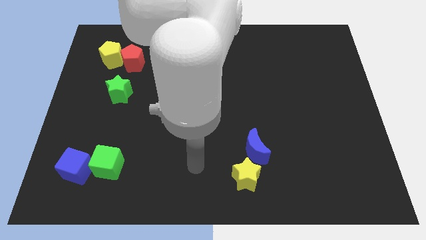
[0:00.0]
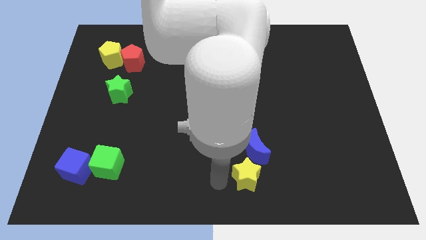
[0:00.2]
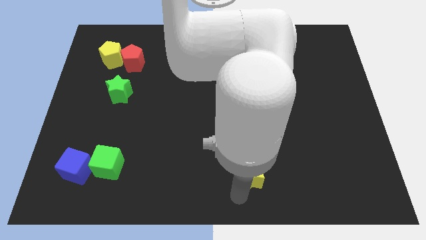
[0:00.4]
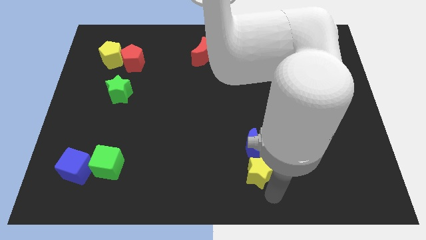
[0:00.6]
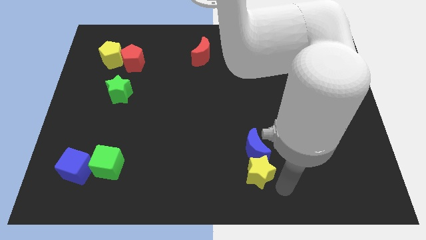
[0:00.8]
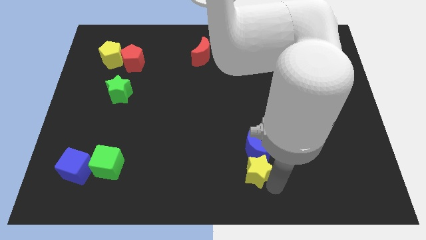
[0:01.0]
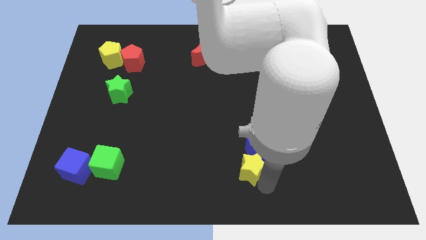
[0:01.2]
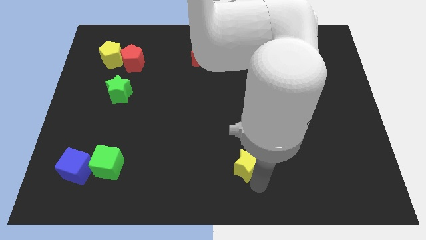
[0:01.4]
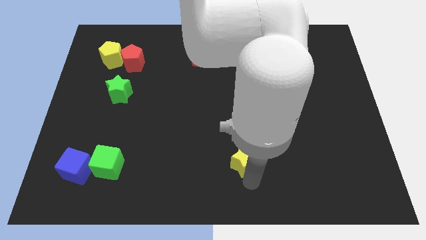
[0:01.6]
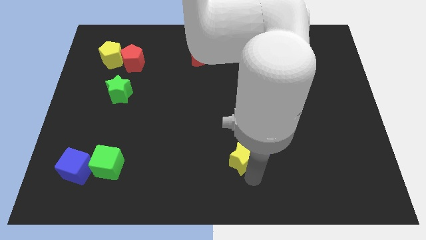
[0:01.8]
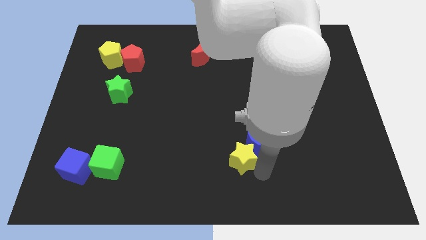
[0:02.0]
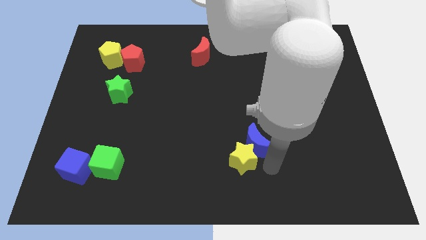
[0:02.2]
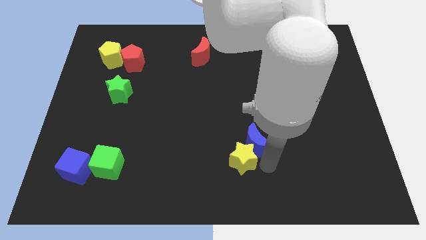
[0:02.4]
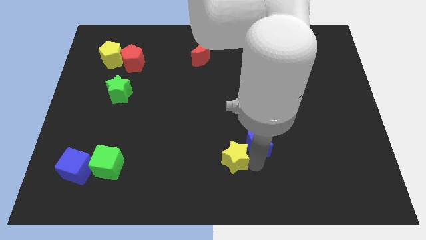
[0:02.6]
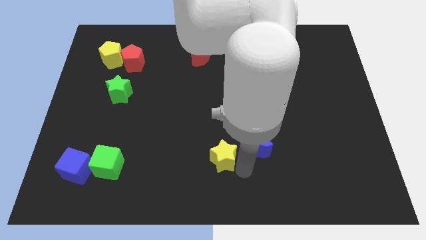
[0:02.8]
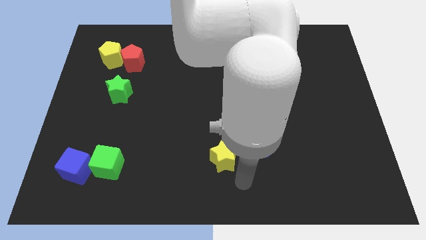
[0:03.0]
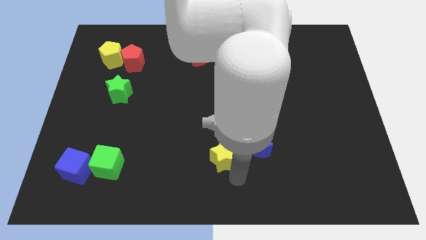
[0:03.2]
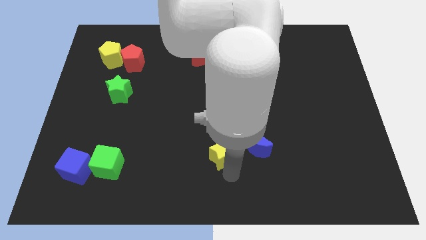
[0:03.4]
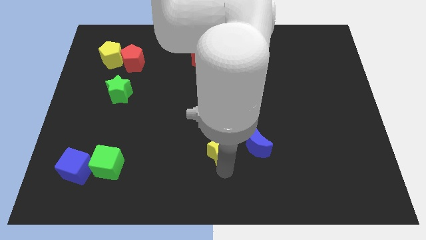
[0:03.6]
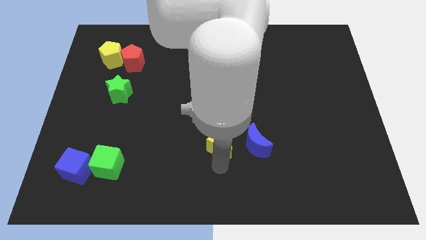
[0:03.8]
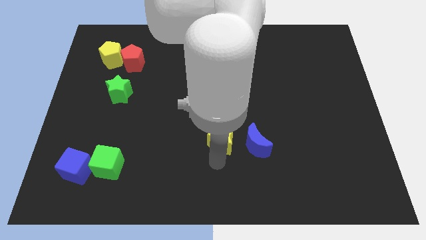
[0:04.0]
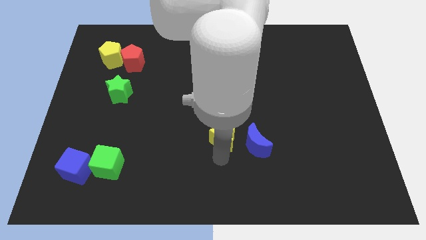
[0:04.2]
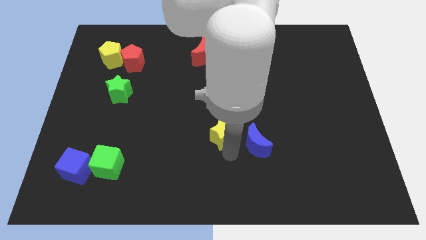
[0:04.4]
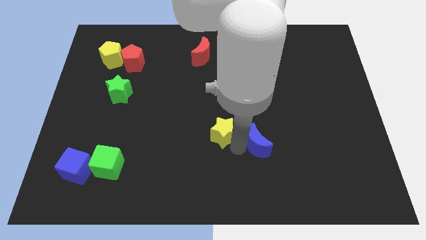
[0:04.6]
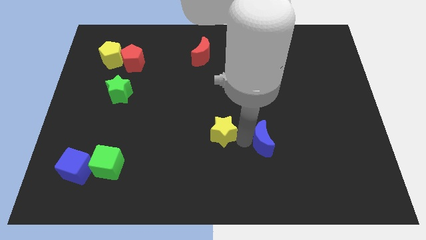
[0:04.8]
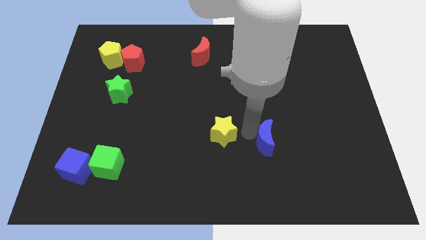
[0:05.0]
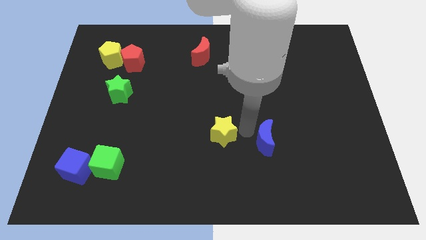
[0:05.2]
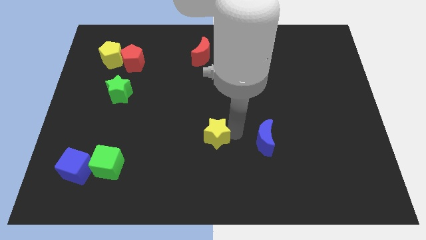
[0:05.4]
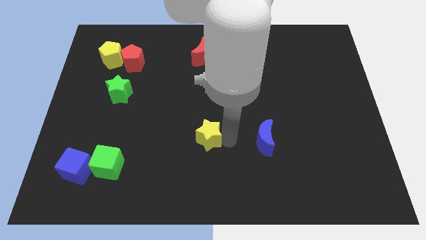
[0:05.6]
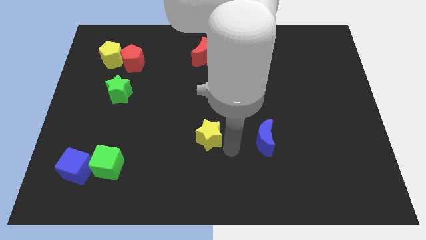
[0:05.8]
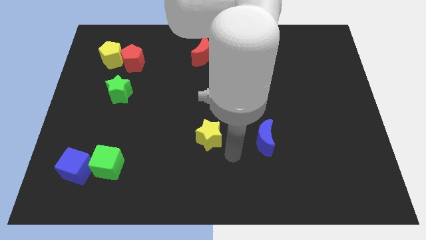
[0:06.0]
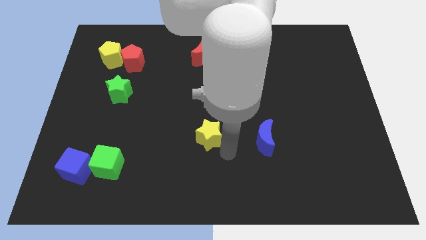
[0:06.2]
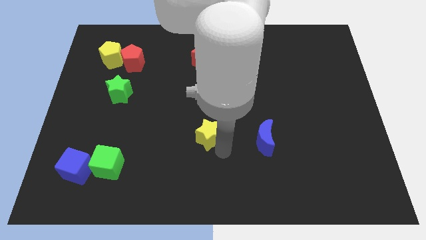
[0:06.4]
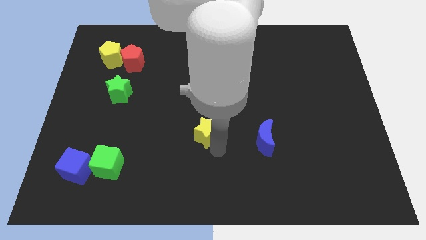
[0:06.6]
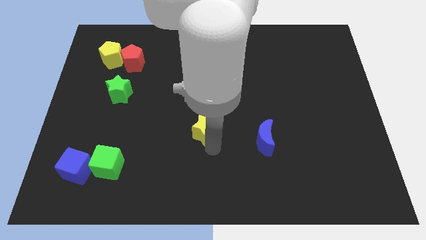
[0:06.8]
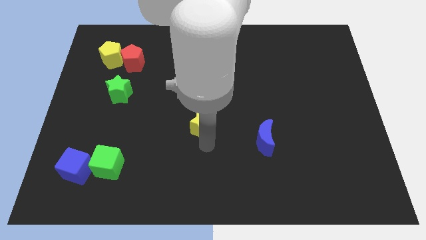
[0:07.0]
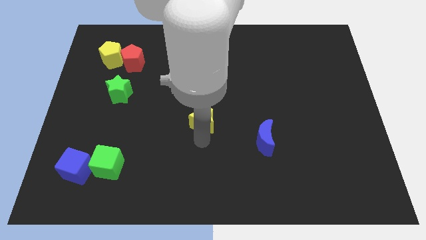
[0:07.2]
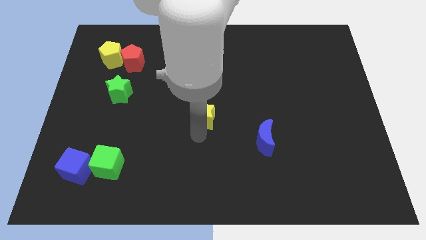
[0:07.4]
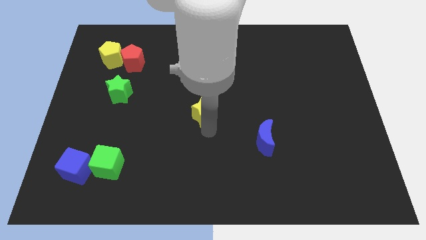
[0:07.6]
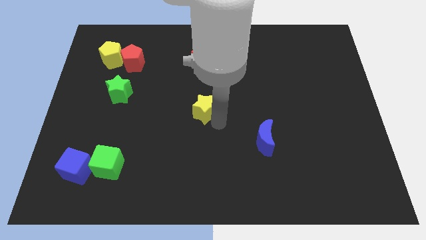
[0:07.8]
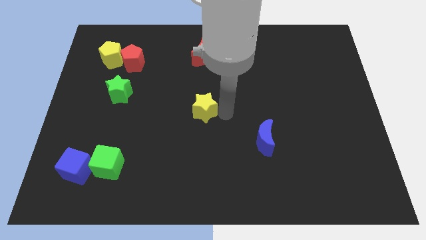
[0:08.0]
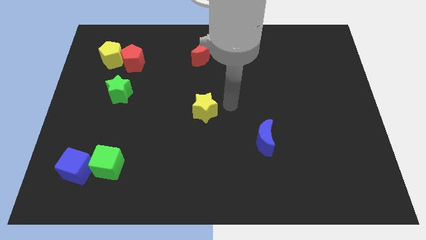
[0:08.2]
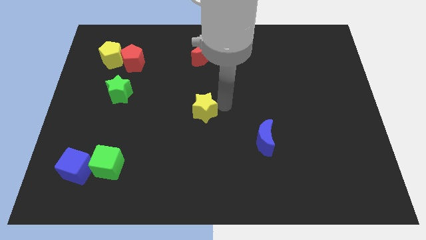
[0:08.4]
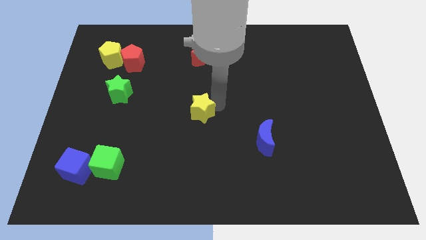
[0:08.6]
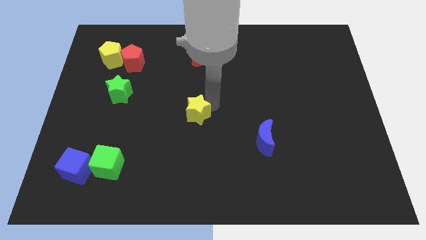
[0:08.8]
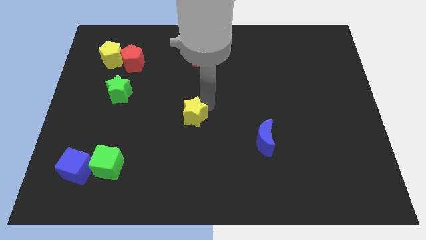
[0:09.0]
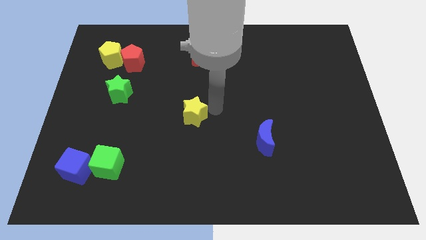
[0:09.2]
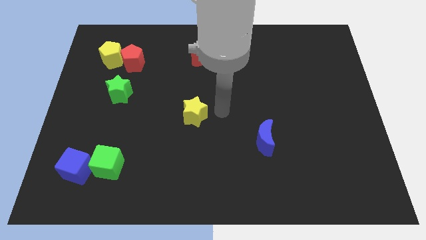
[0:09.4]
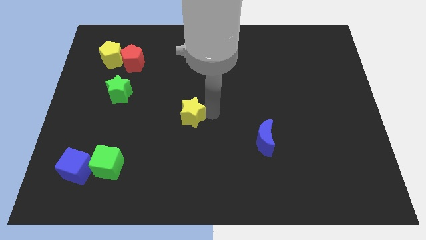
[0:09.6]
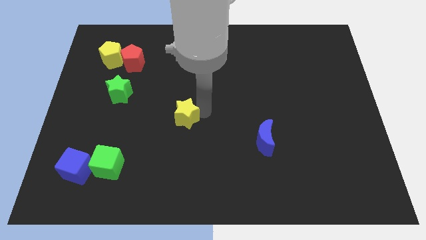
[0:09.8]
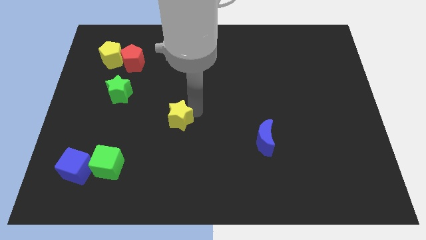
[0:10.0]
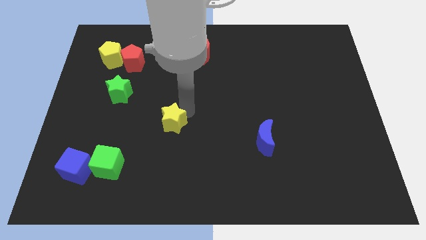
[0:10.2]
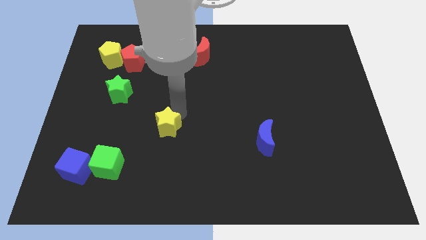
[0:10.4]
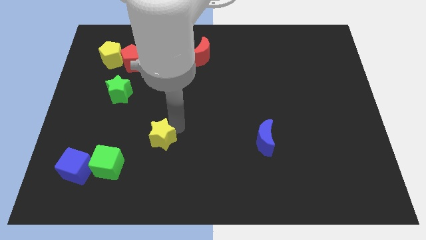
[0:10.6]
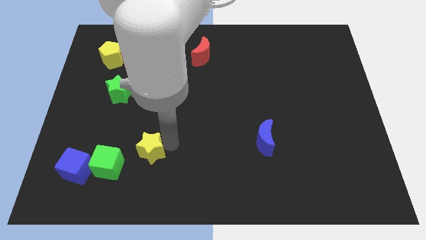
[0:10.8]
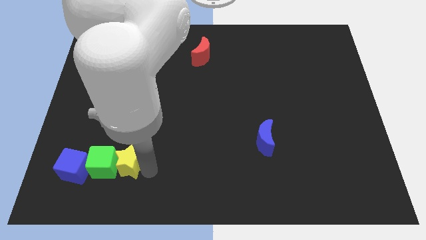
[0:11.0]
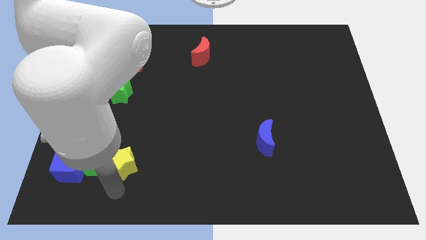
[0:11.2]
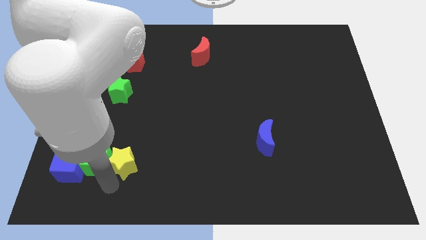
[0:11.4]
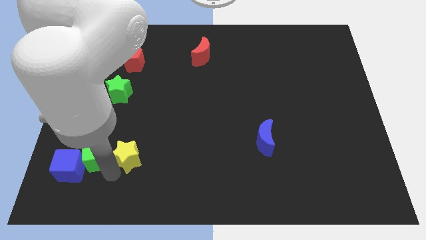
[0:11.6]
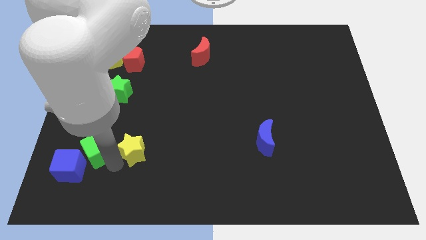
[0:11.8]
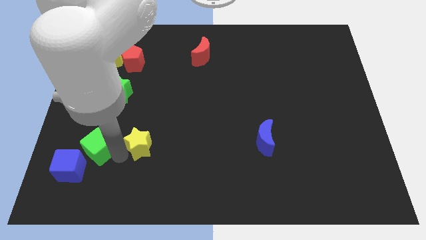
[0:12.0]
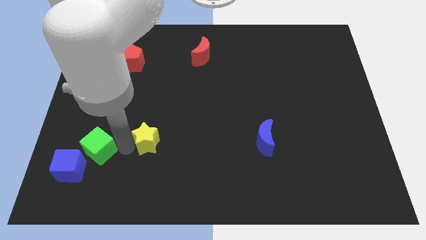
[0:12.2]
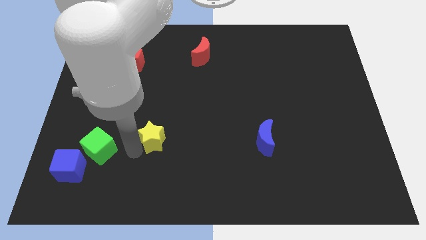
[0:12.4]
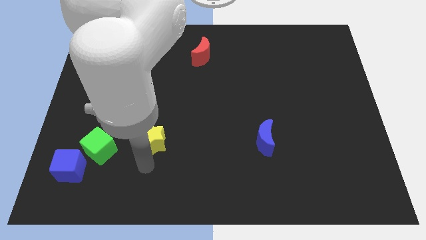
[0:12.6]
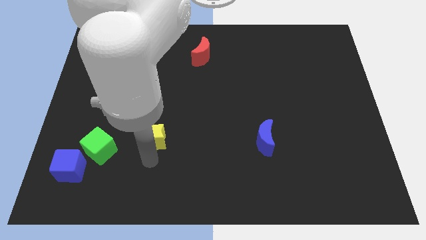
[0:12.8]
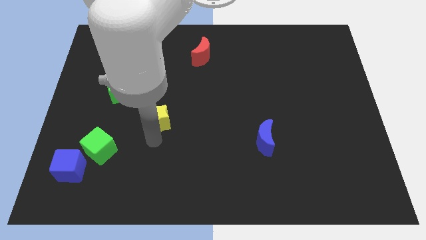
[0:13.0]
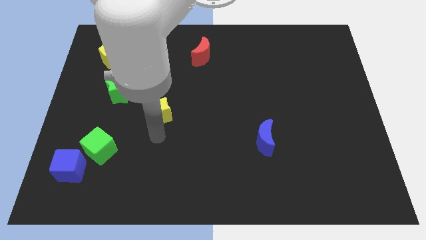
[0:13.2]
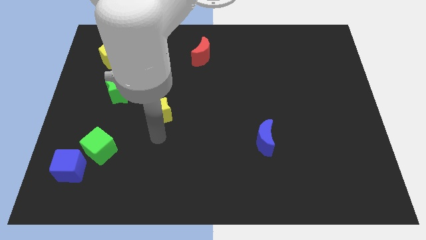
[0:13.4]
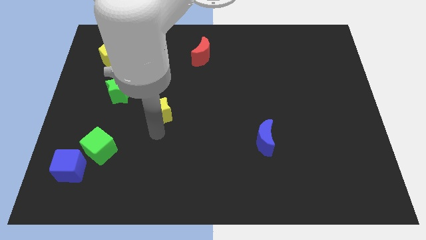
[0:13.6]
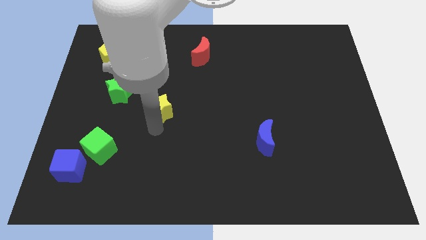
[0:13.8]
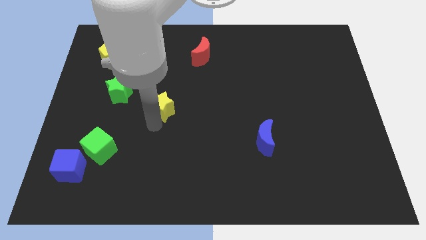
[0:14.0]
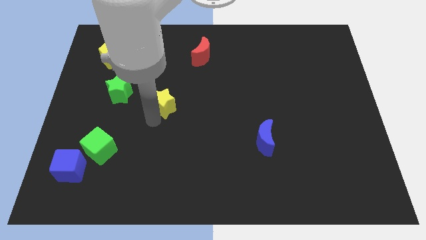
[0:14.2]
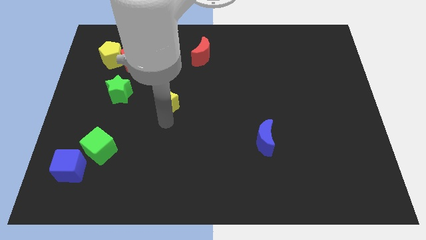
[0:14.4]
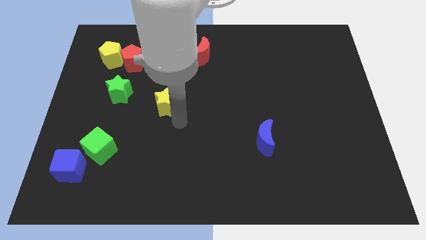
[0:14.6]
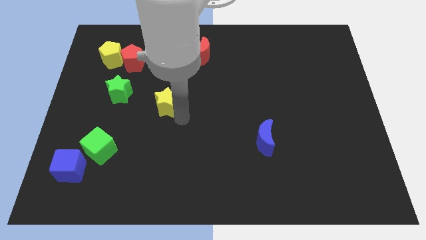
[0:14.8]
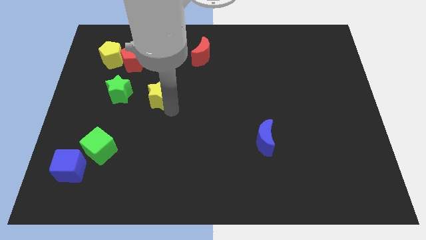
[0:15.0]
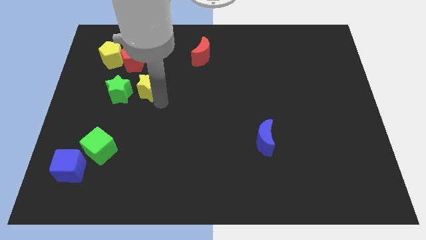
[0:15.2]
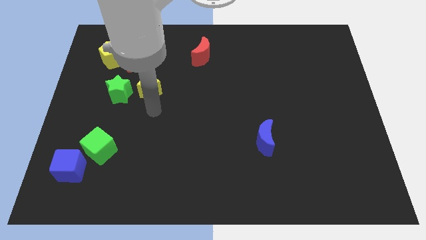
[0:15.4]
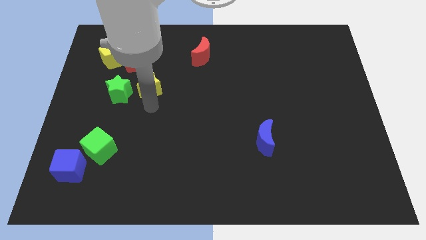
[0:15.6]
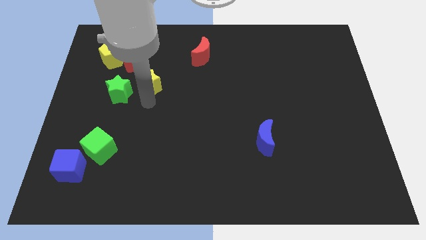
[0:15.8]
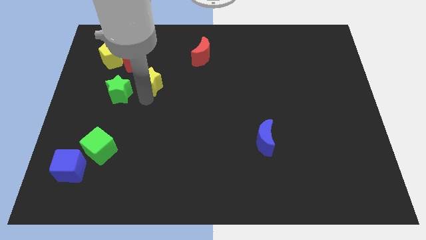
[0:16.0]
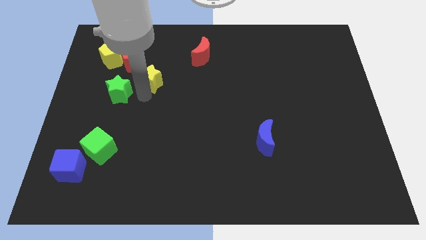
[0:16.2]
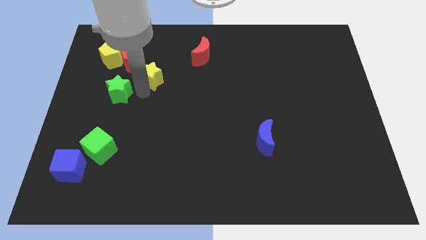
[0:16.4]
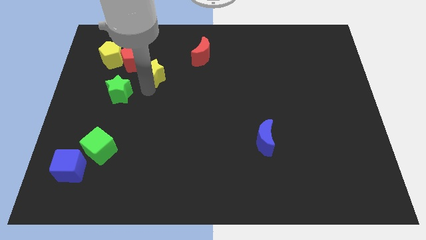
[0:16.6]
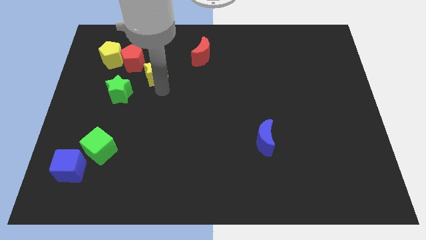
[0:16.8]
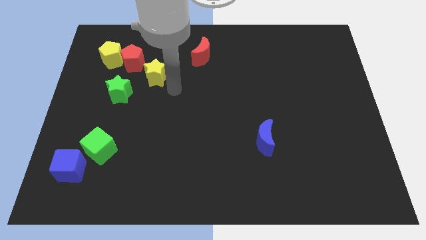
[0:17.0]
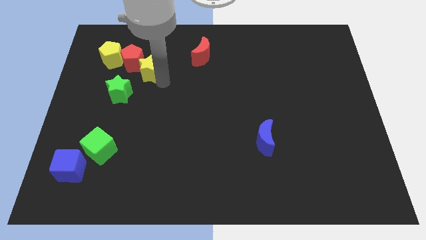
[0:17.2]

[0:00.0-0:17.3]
move the yellow star close to the red pentagon
